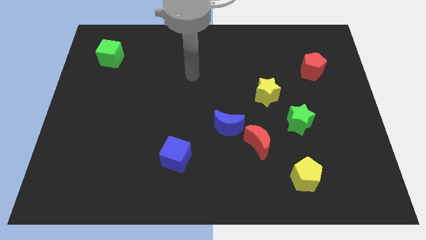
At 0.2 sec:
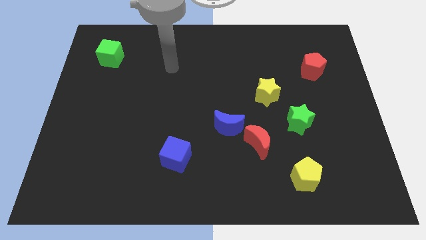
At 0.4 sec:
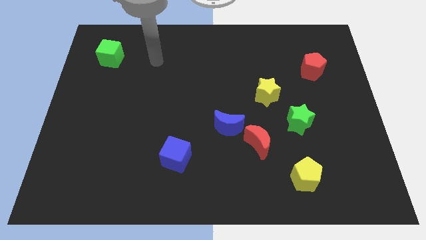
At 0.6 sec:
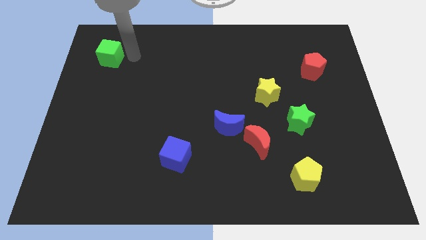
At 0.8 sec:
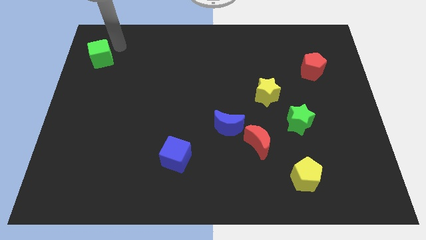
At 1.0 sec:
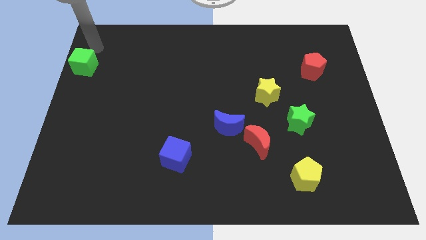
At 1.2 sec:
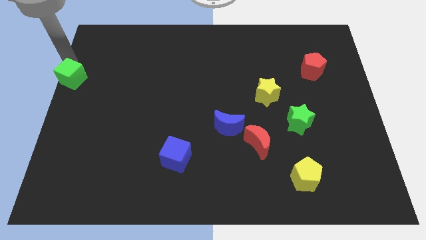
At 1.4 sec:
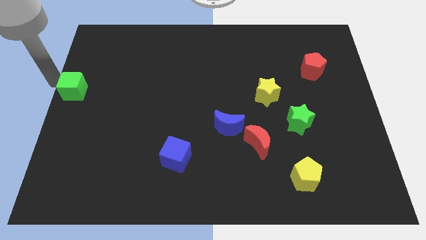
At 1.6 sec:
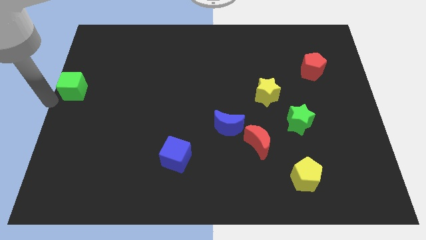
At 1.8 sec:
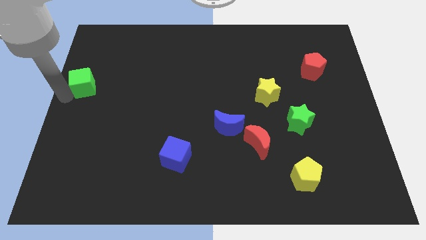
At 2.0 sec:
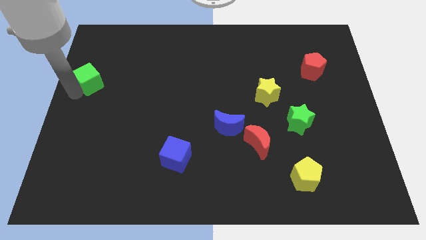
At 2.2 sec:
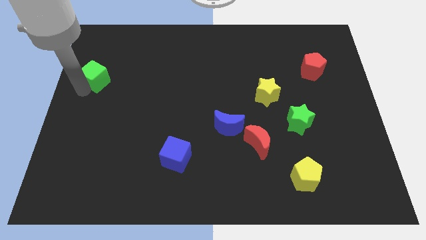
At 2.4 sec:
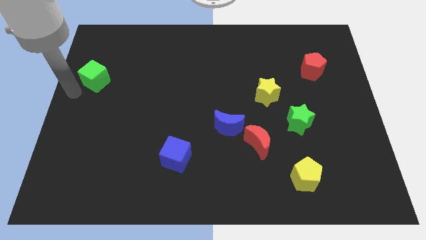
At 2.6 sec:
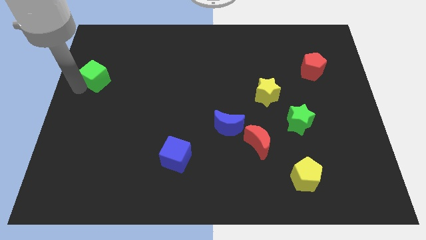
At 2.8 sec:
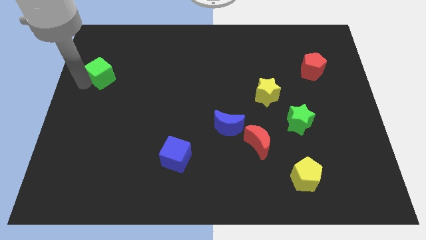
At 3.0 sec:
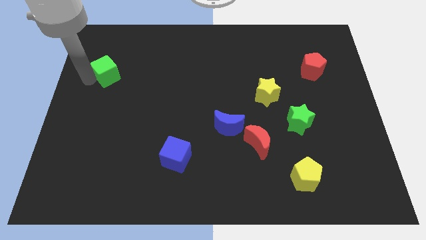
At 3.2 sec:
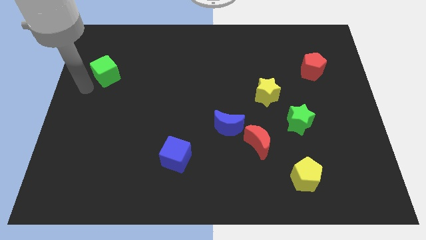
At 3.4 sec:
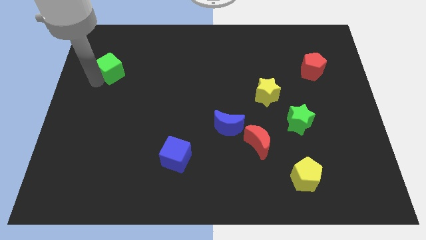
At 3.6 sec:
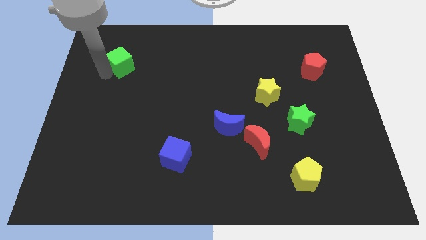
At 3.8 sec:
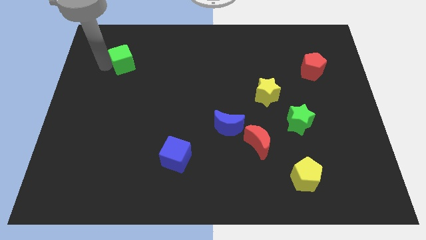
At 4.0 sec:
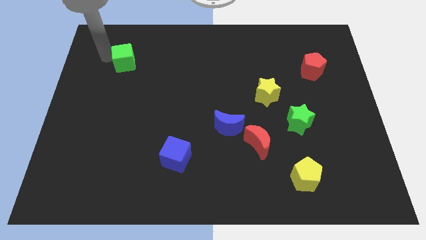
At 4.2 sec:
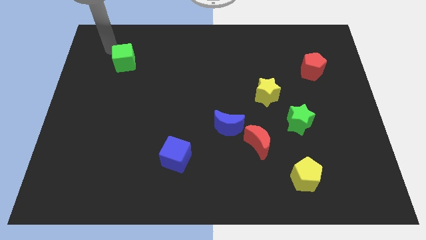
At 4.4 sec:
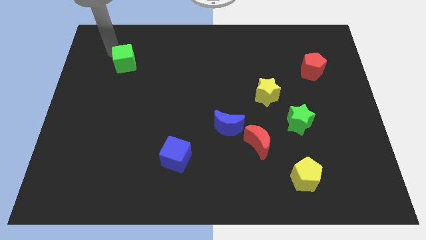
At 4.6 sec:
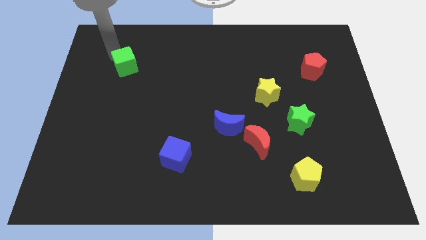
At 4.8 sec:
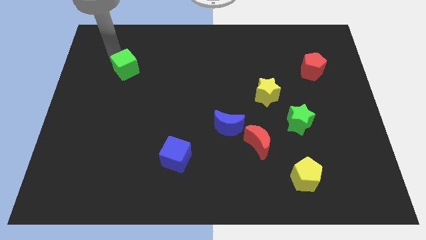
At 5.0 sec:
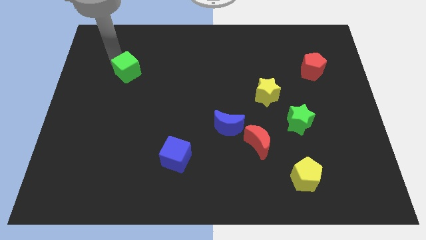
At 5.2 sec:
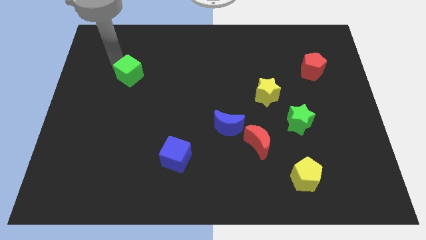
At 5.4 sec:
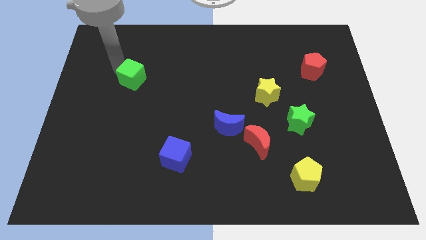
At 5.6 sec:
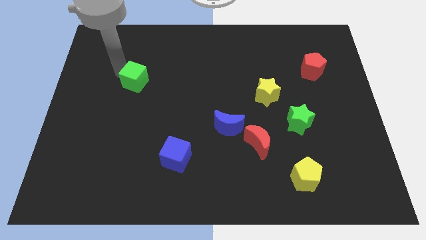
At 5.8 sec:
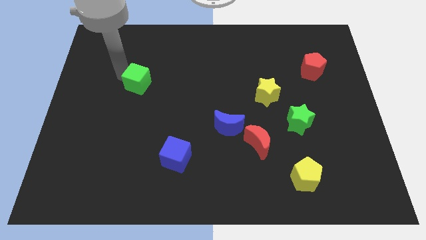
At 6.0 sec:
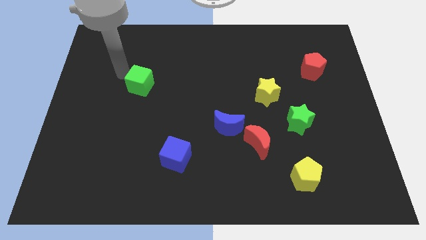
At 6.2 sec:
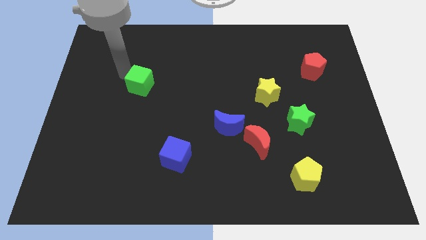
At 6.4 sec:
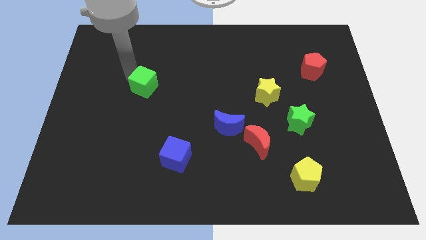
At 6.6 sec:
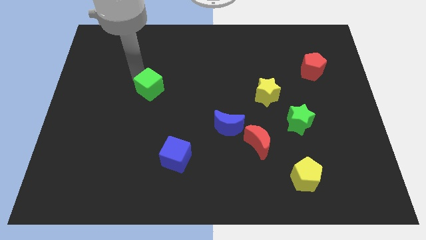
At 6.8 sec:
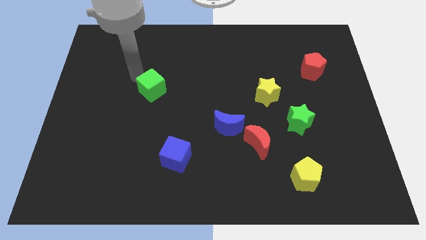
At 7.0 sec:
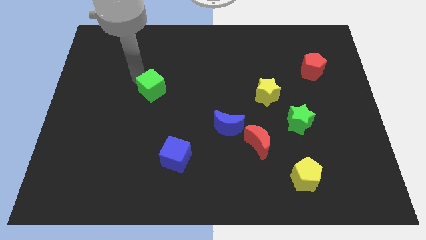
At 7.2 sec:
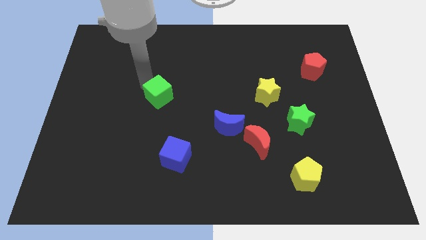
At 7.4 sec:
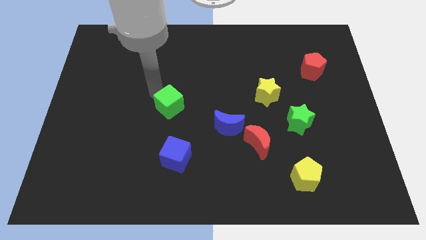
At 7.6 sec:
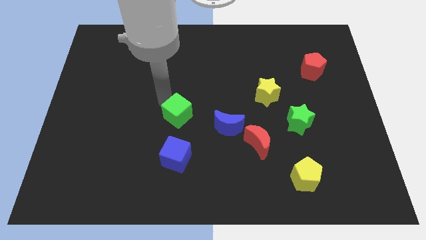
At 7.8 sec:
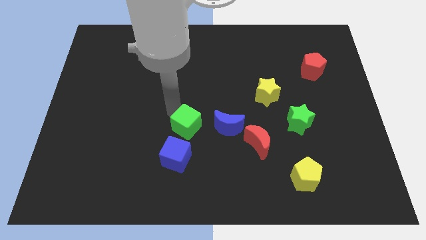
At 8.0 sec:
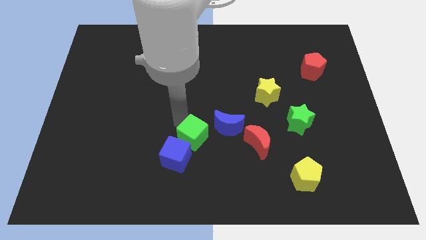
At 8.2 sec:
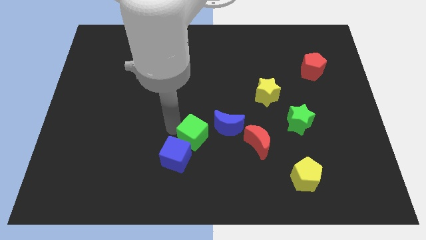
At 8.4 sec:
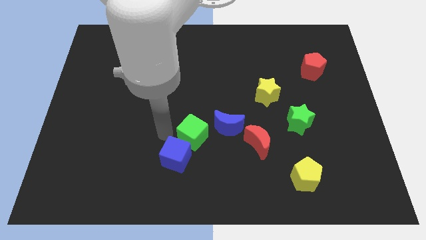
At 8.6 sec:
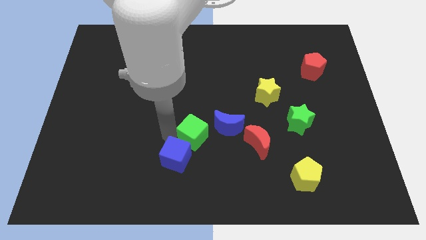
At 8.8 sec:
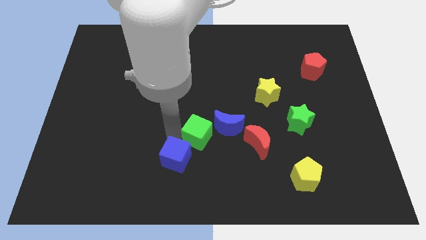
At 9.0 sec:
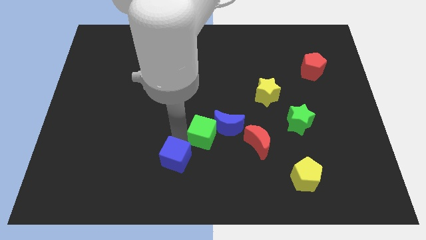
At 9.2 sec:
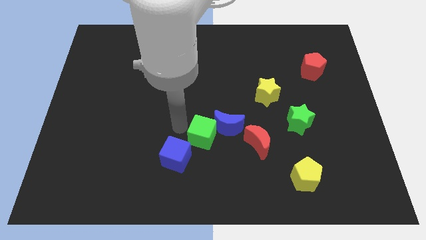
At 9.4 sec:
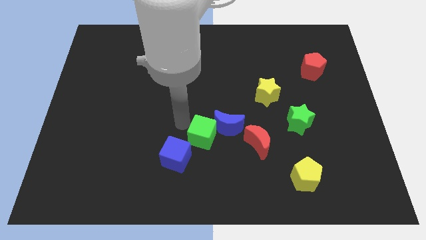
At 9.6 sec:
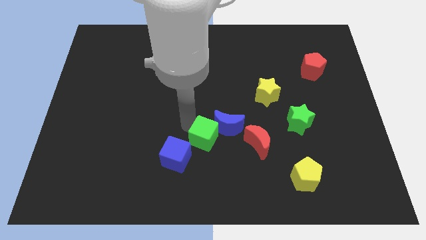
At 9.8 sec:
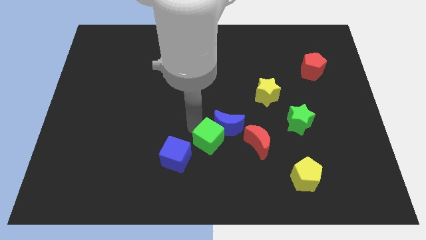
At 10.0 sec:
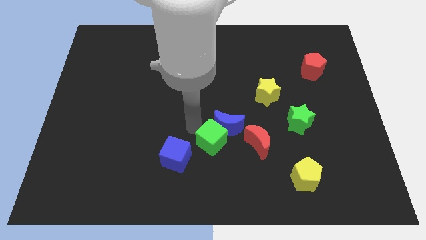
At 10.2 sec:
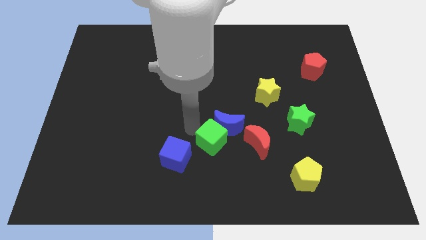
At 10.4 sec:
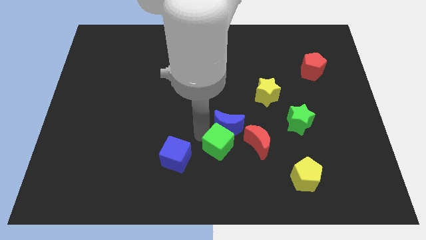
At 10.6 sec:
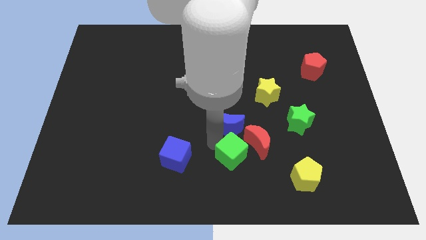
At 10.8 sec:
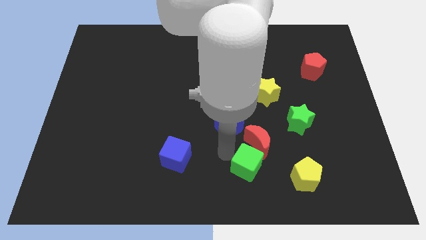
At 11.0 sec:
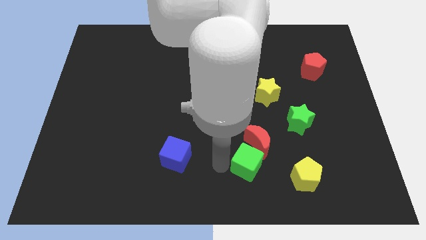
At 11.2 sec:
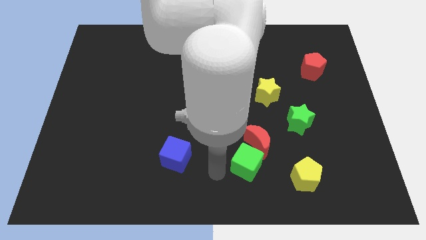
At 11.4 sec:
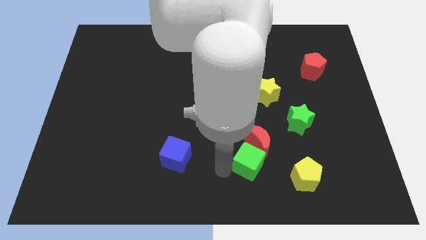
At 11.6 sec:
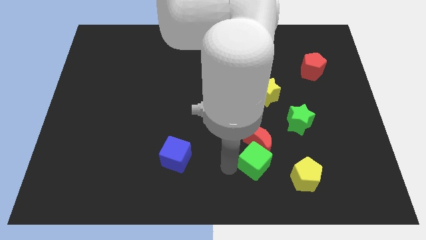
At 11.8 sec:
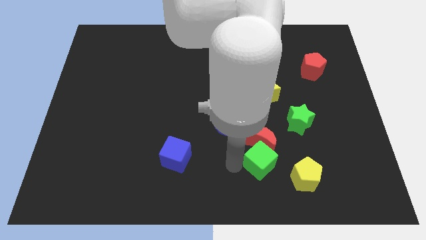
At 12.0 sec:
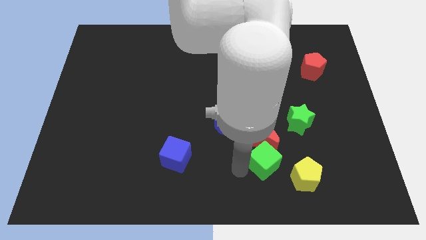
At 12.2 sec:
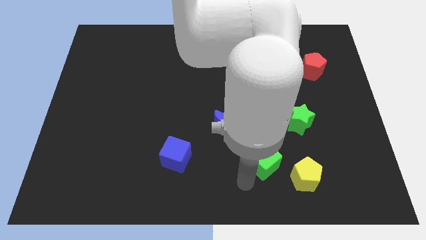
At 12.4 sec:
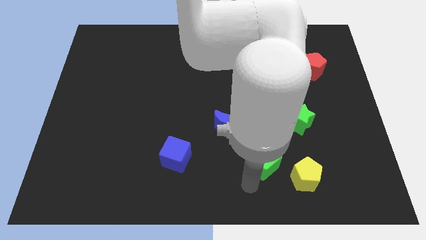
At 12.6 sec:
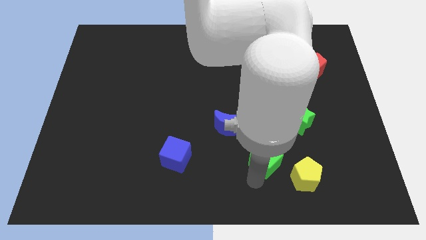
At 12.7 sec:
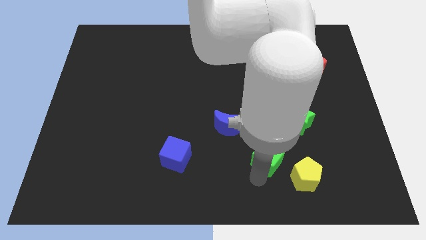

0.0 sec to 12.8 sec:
slide the green cube to the bottom left side of the green star
